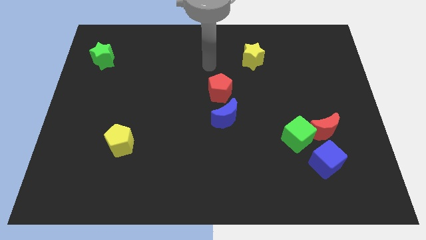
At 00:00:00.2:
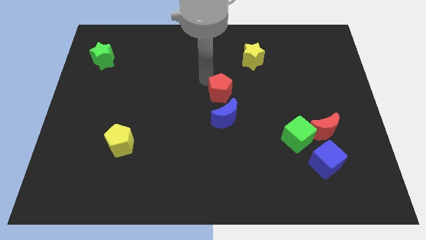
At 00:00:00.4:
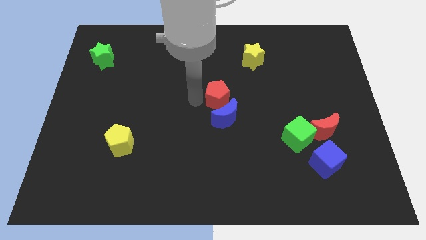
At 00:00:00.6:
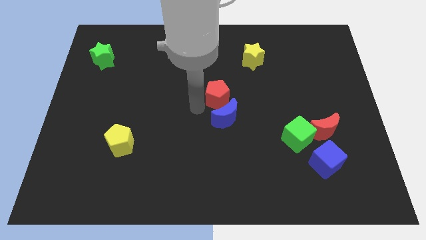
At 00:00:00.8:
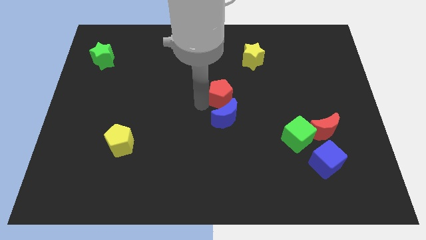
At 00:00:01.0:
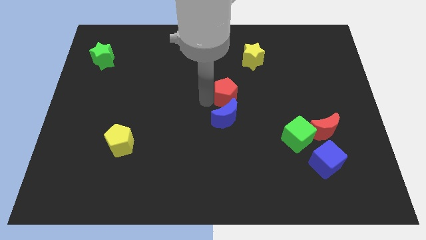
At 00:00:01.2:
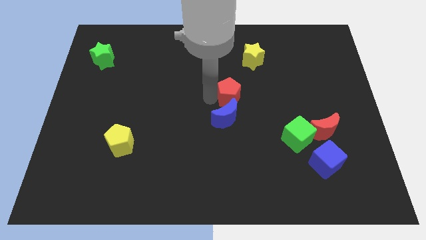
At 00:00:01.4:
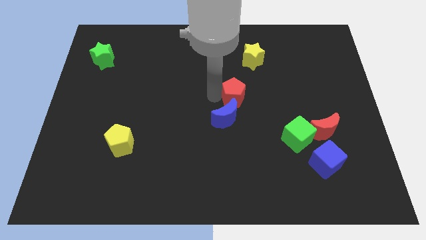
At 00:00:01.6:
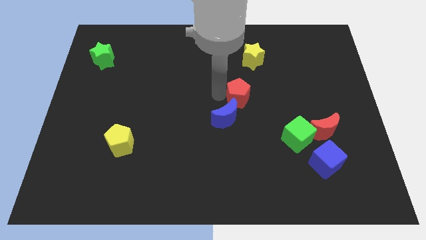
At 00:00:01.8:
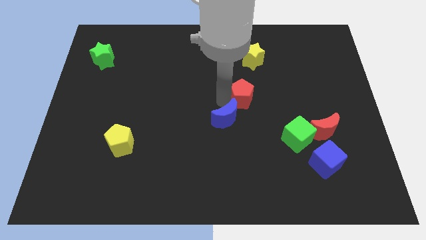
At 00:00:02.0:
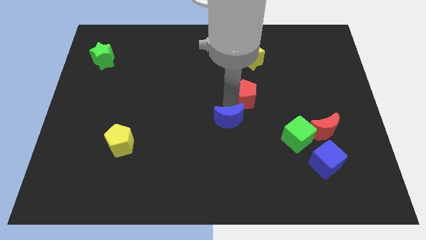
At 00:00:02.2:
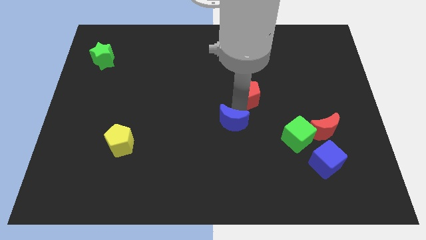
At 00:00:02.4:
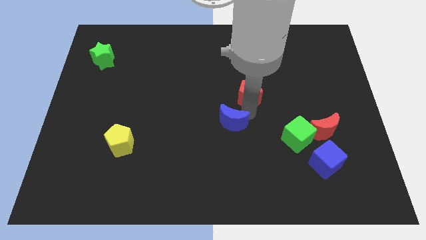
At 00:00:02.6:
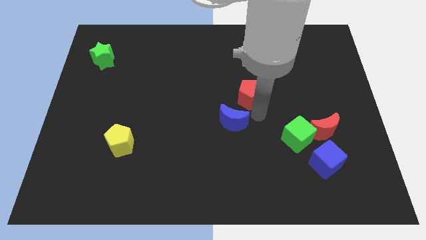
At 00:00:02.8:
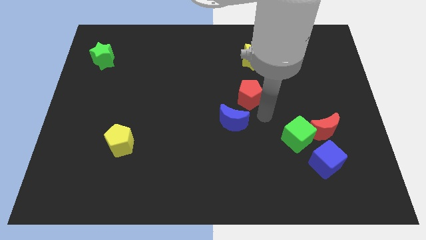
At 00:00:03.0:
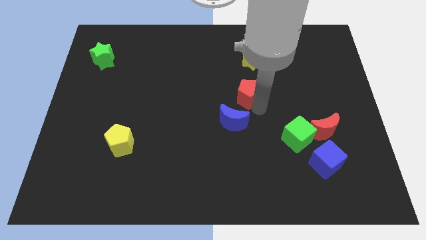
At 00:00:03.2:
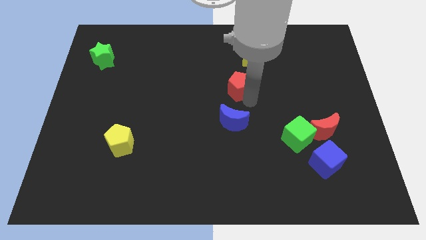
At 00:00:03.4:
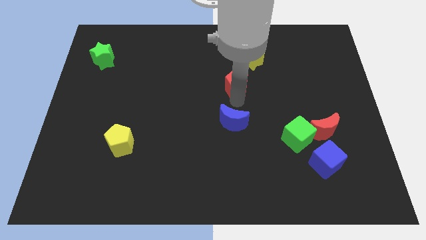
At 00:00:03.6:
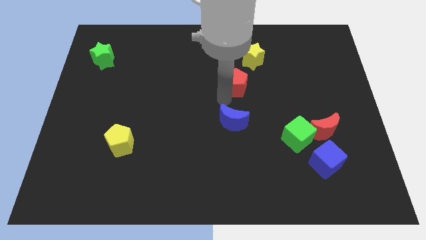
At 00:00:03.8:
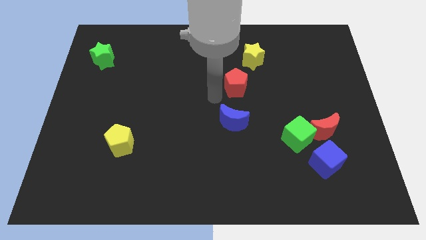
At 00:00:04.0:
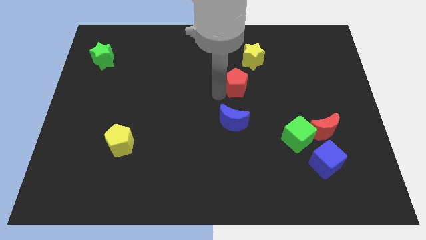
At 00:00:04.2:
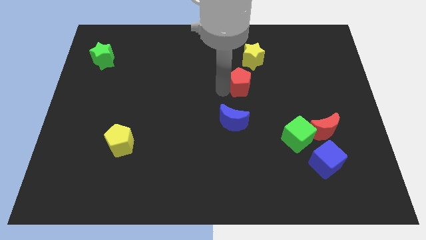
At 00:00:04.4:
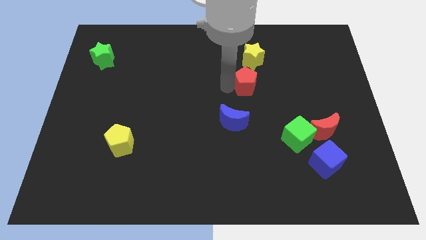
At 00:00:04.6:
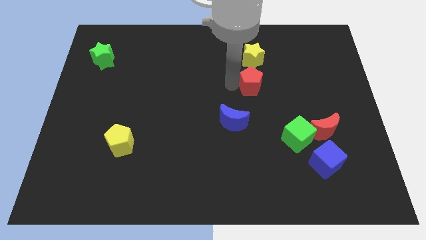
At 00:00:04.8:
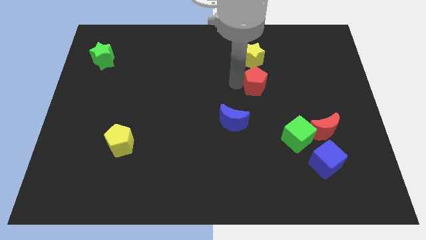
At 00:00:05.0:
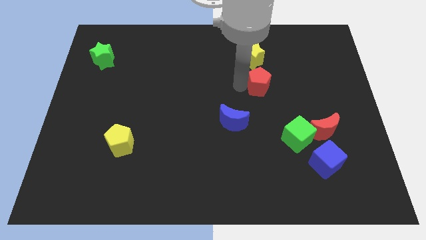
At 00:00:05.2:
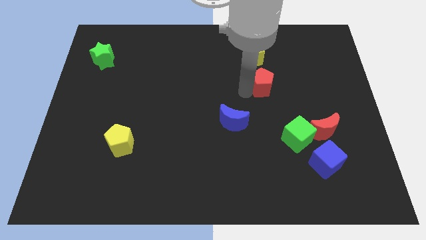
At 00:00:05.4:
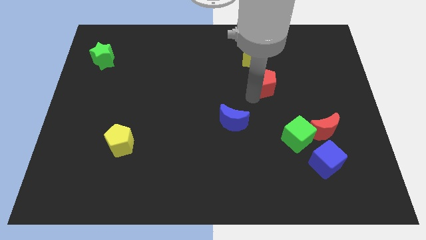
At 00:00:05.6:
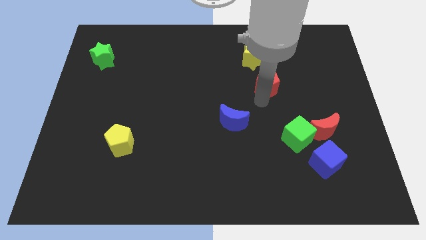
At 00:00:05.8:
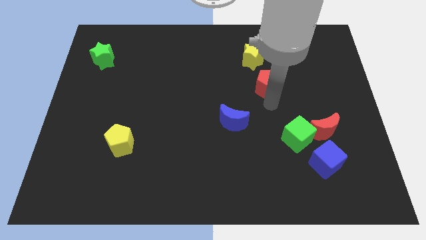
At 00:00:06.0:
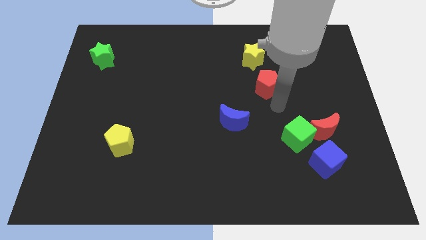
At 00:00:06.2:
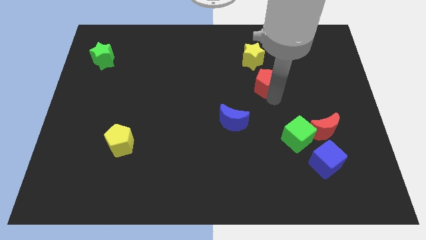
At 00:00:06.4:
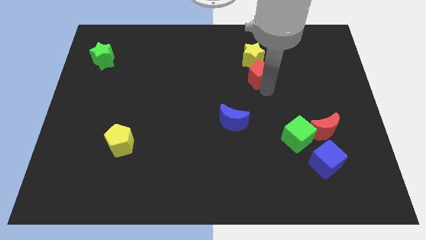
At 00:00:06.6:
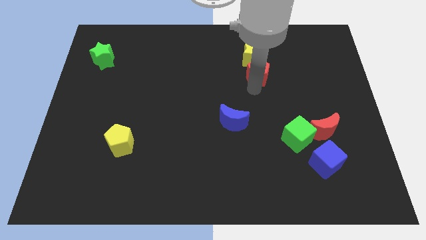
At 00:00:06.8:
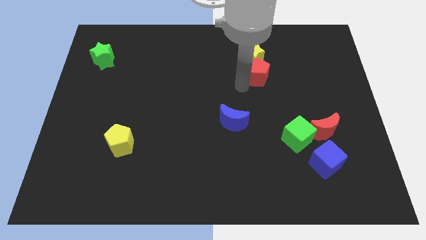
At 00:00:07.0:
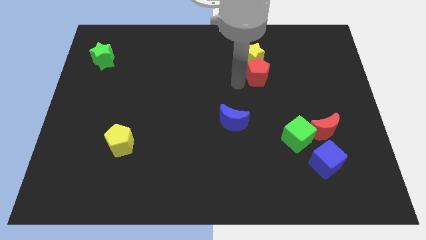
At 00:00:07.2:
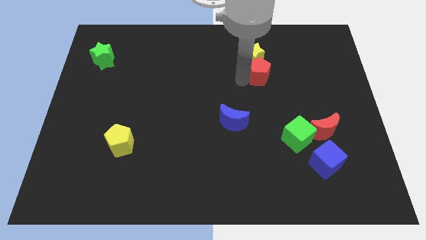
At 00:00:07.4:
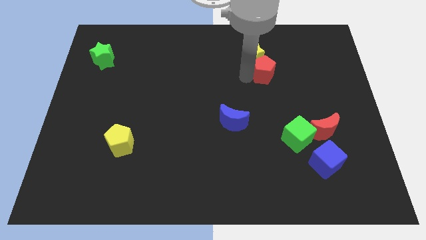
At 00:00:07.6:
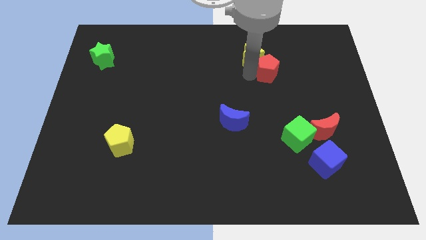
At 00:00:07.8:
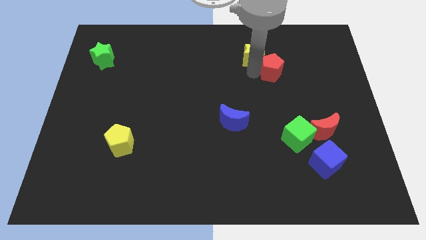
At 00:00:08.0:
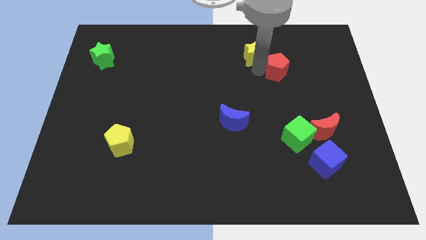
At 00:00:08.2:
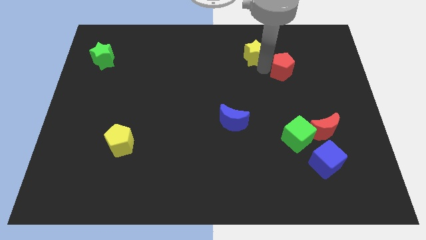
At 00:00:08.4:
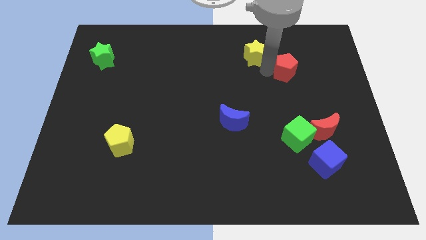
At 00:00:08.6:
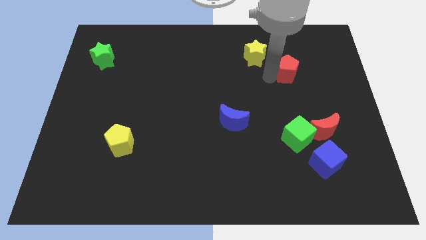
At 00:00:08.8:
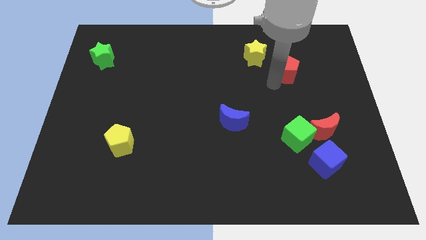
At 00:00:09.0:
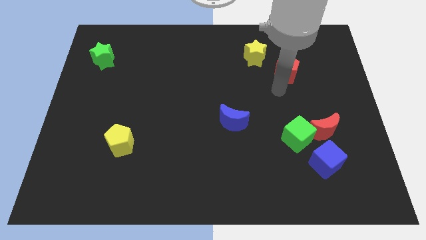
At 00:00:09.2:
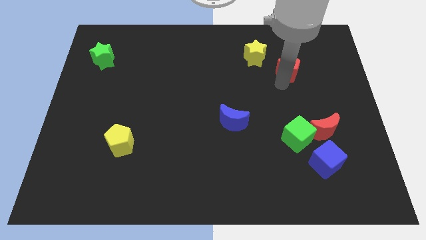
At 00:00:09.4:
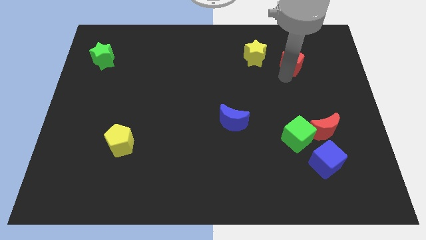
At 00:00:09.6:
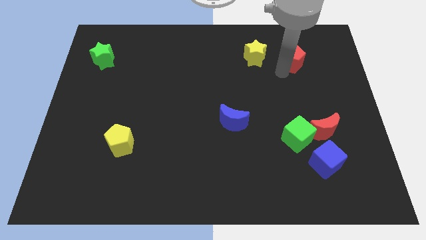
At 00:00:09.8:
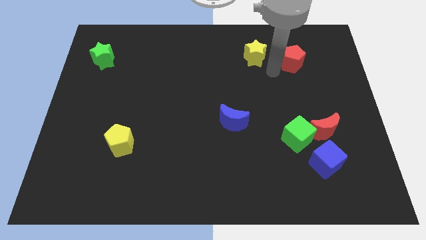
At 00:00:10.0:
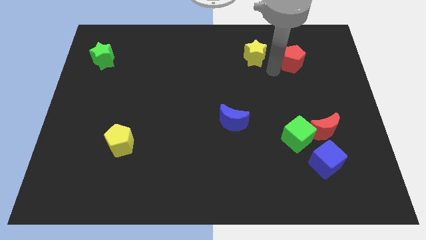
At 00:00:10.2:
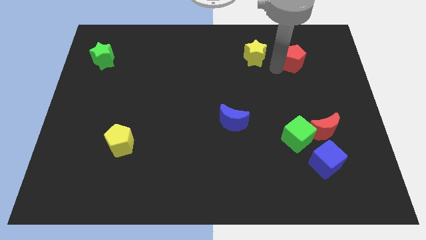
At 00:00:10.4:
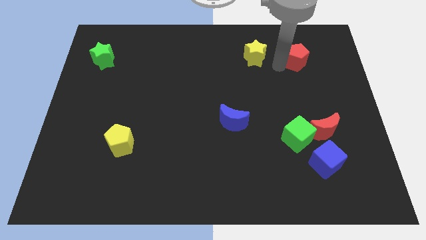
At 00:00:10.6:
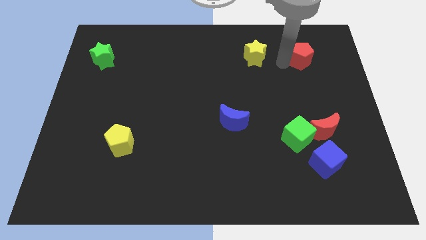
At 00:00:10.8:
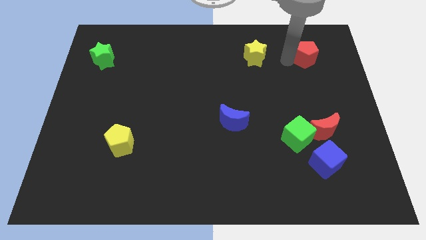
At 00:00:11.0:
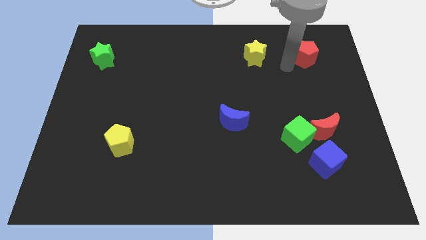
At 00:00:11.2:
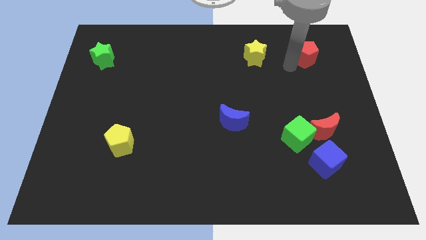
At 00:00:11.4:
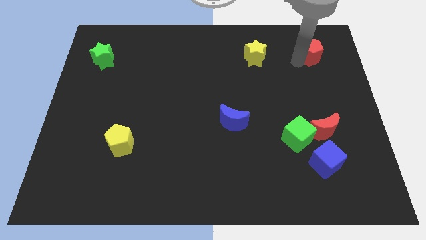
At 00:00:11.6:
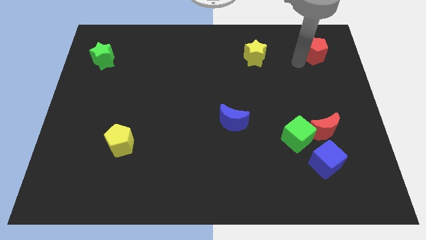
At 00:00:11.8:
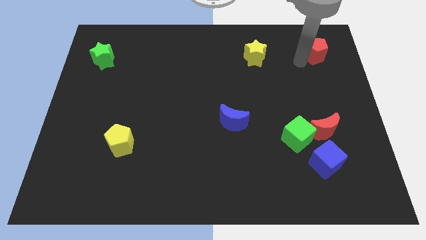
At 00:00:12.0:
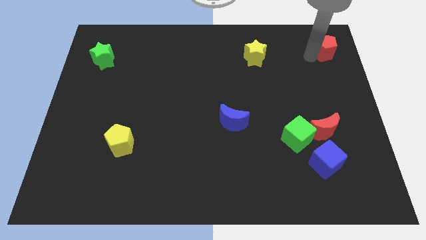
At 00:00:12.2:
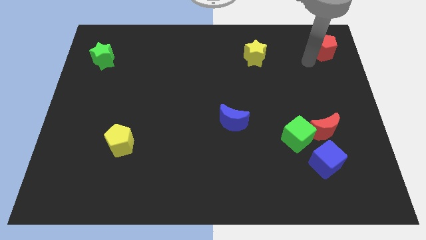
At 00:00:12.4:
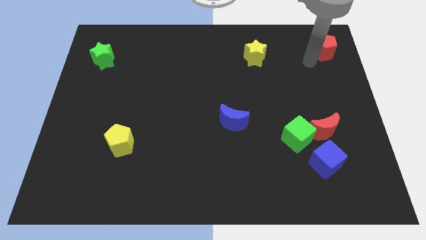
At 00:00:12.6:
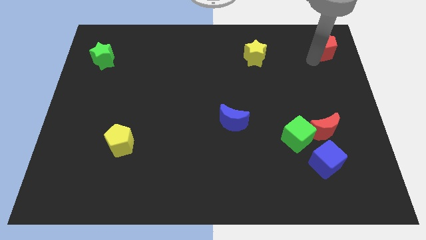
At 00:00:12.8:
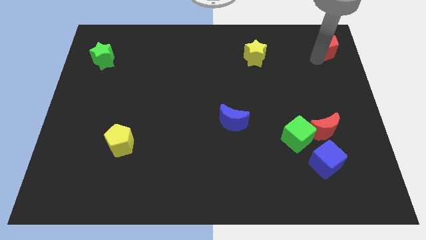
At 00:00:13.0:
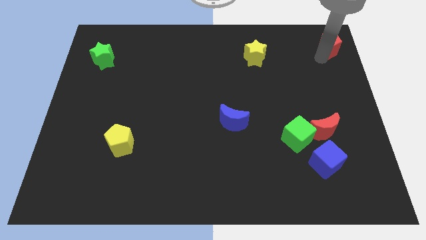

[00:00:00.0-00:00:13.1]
slide the red pentagon to the top right of the board
